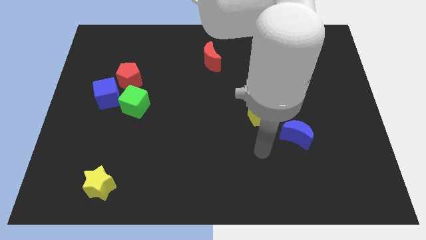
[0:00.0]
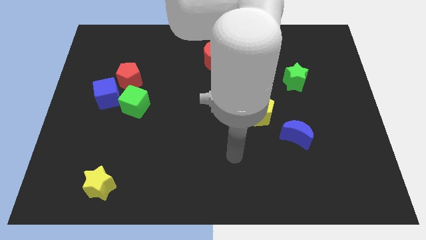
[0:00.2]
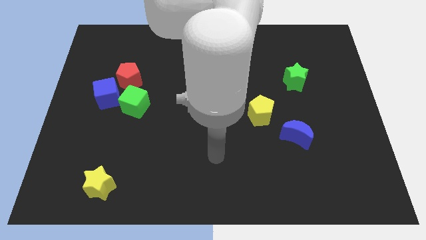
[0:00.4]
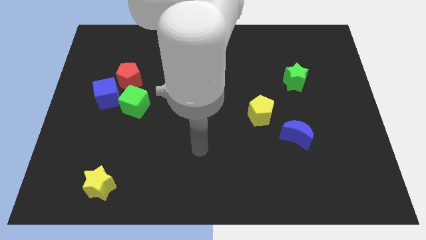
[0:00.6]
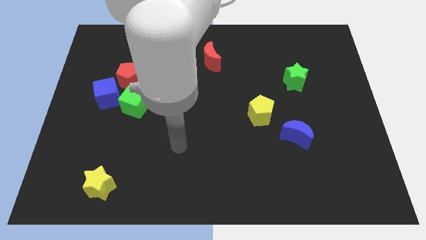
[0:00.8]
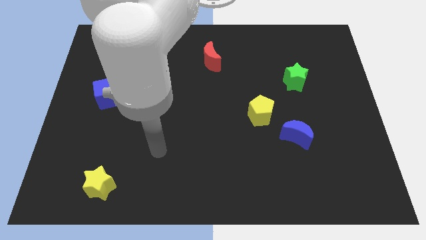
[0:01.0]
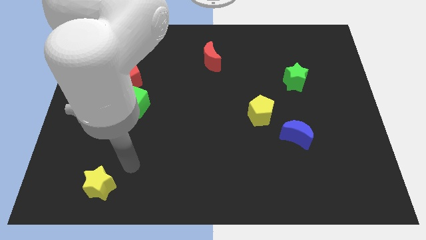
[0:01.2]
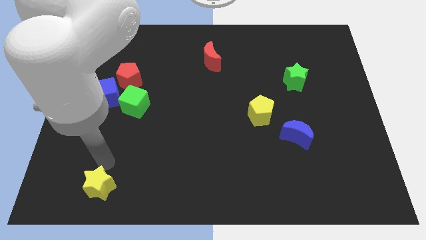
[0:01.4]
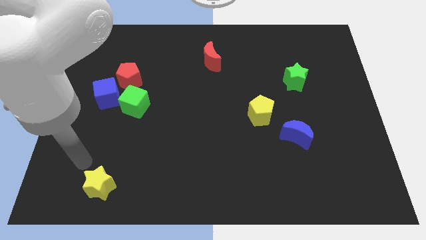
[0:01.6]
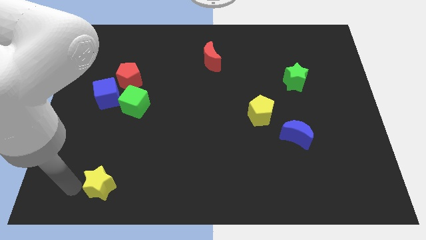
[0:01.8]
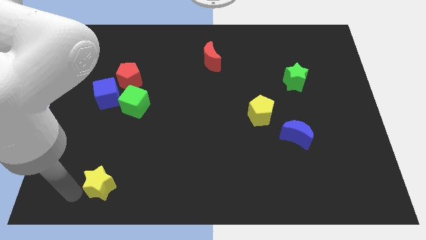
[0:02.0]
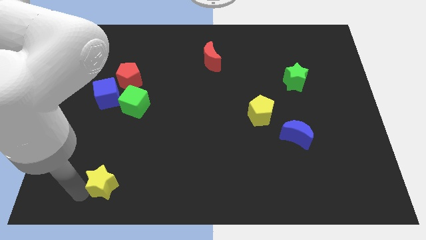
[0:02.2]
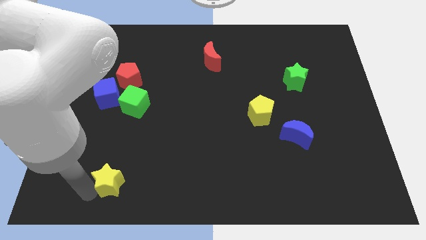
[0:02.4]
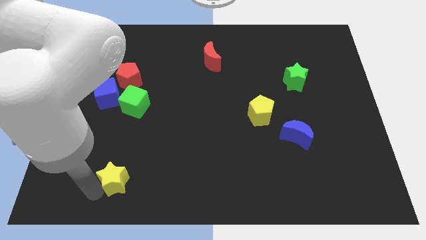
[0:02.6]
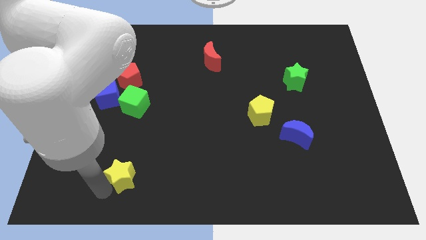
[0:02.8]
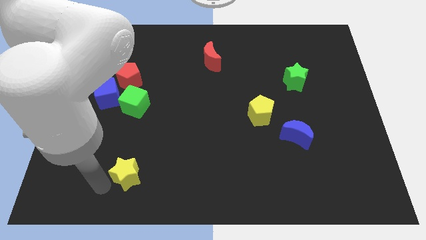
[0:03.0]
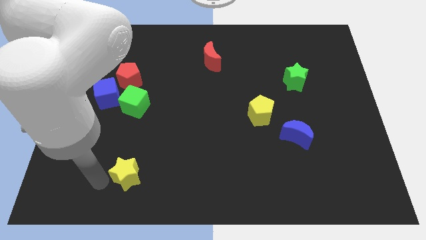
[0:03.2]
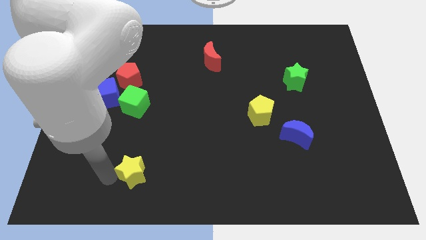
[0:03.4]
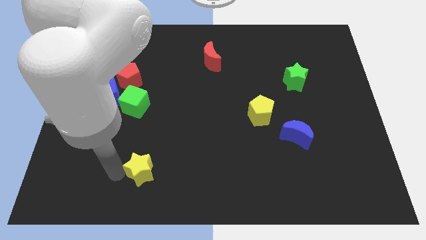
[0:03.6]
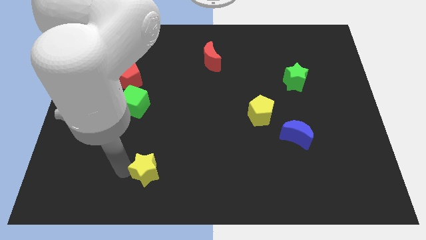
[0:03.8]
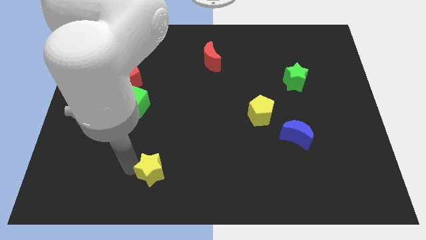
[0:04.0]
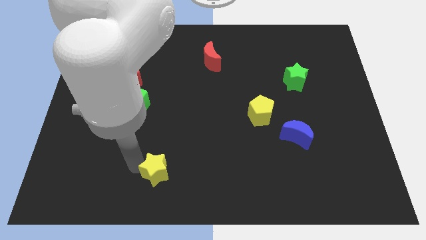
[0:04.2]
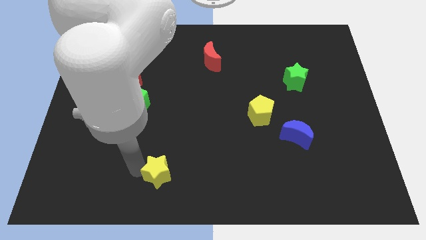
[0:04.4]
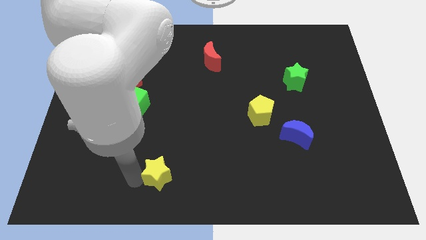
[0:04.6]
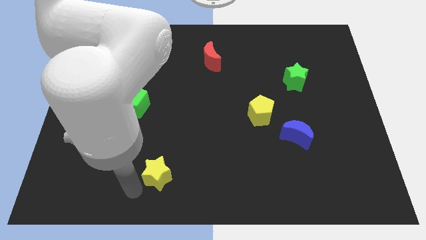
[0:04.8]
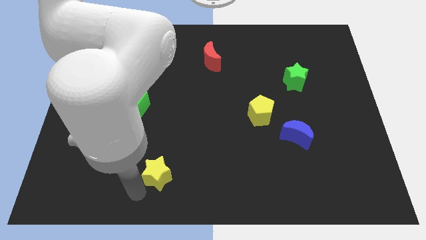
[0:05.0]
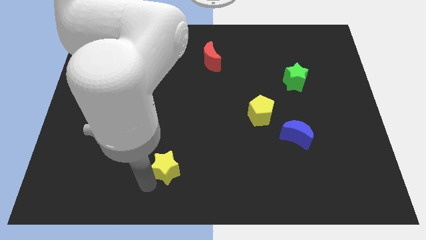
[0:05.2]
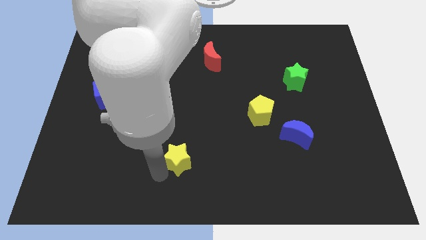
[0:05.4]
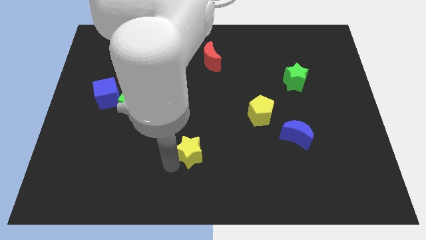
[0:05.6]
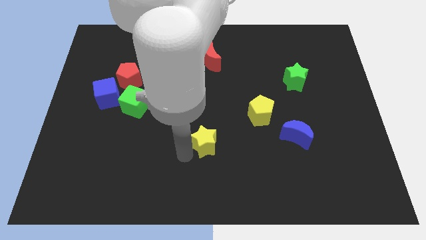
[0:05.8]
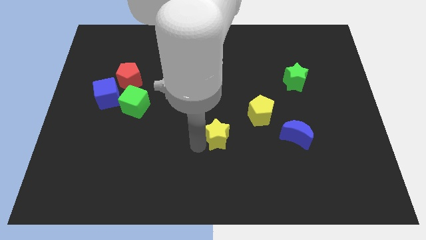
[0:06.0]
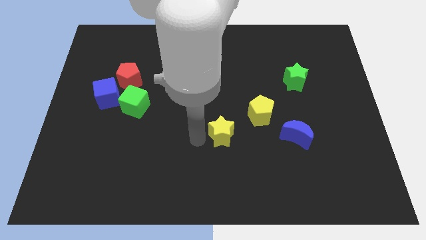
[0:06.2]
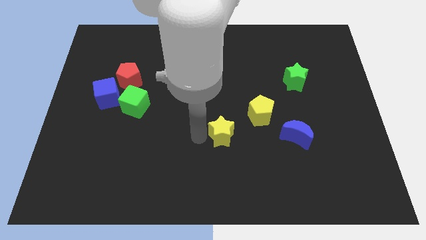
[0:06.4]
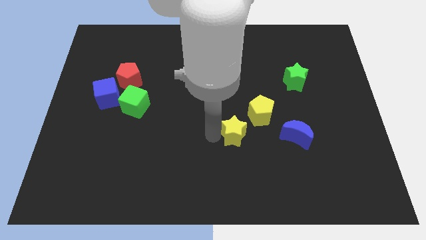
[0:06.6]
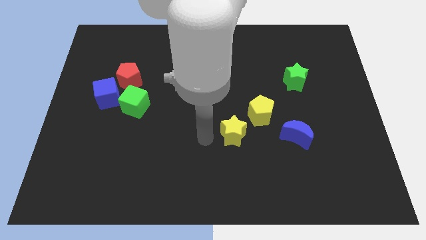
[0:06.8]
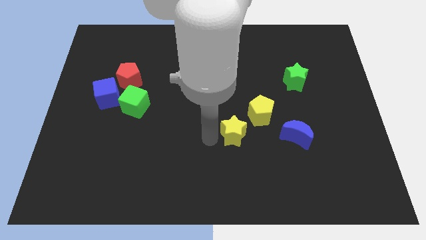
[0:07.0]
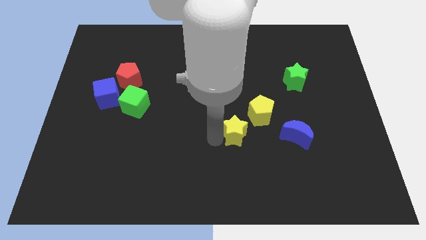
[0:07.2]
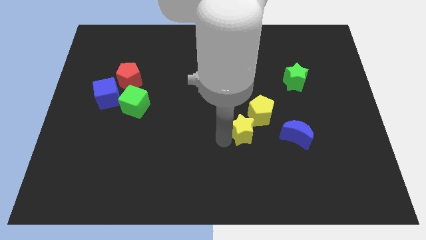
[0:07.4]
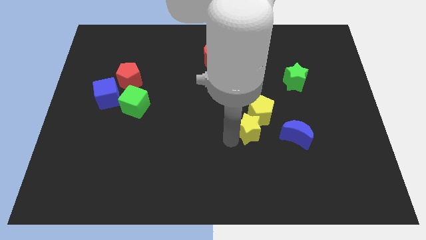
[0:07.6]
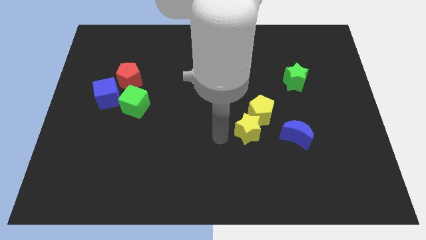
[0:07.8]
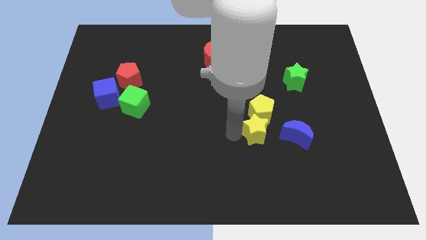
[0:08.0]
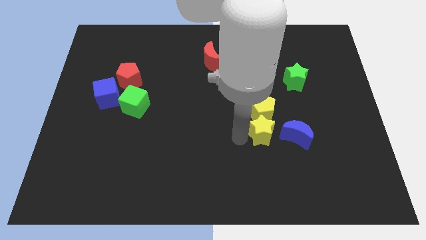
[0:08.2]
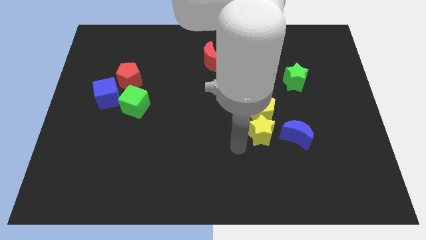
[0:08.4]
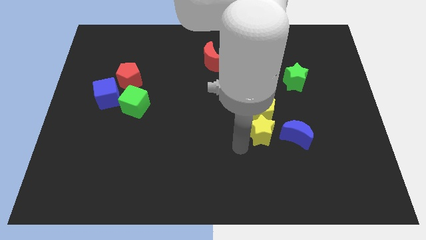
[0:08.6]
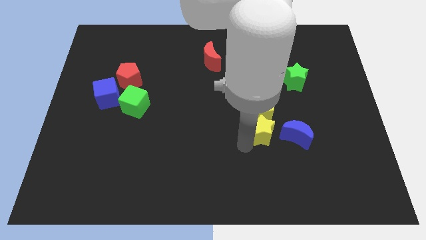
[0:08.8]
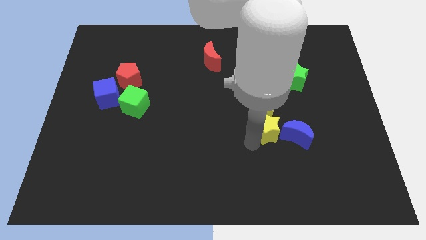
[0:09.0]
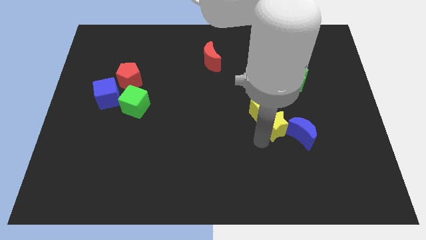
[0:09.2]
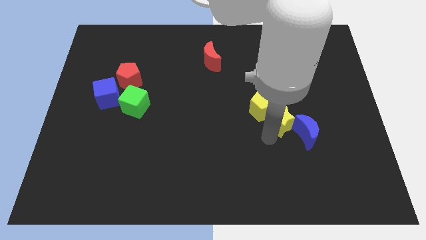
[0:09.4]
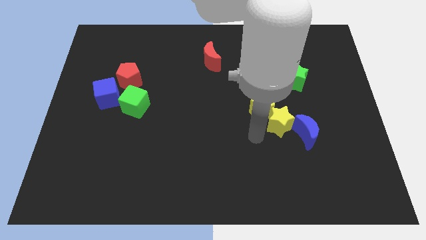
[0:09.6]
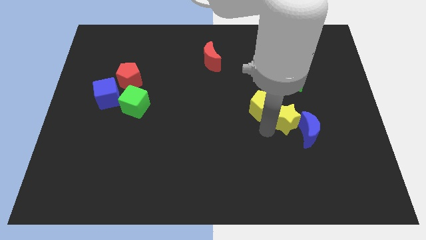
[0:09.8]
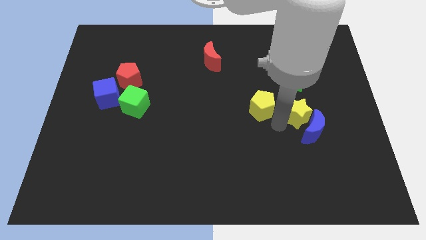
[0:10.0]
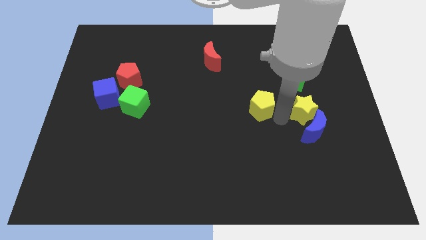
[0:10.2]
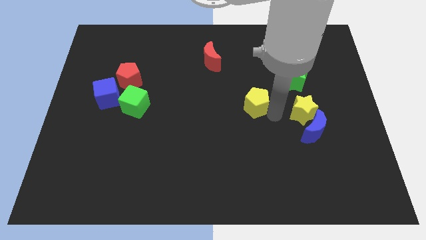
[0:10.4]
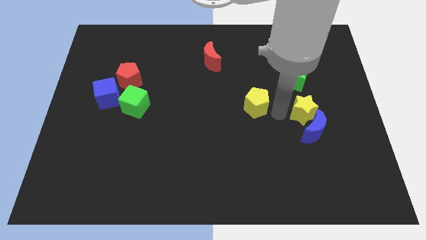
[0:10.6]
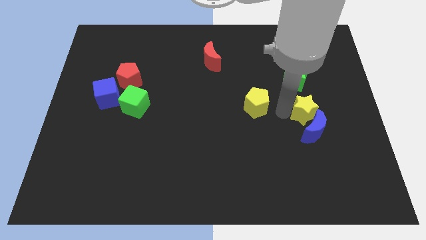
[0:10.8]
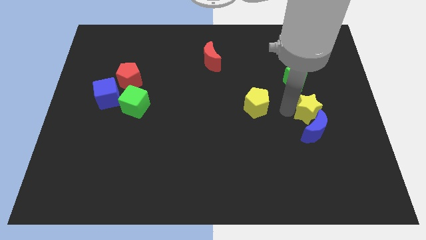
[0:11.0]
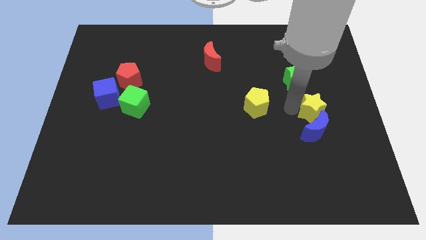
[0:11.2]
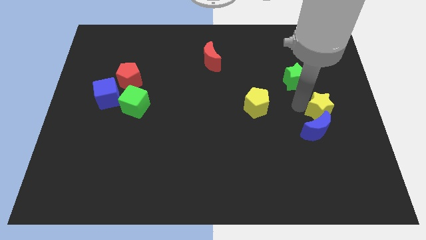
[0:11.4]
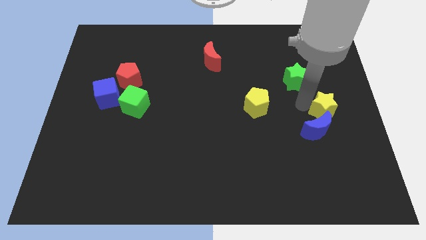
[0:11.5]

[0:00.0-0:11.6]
put the yellow star to the center right

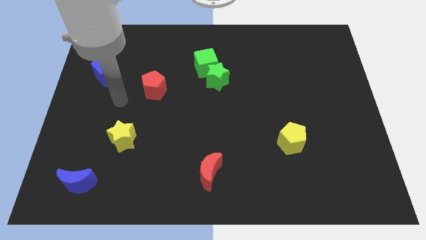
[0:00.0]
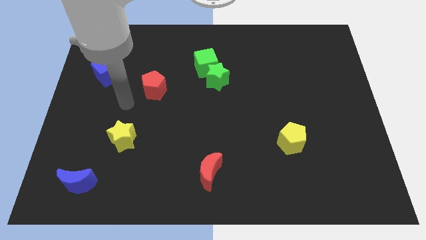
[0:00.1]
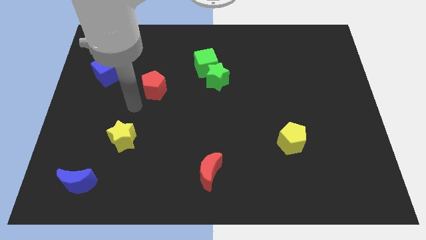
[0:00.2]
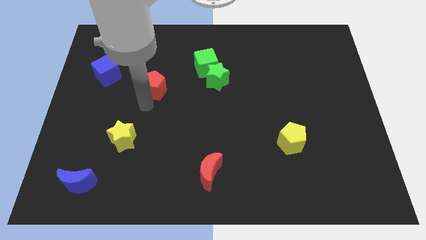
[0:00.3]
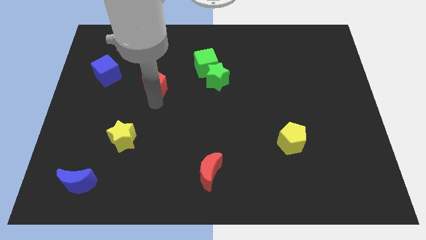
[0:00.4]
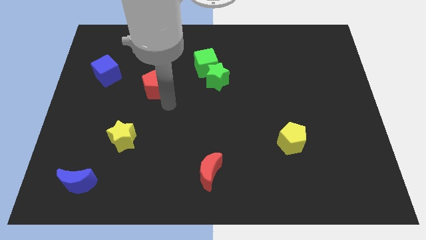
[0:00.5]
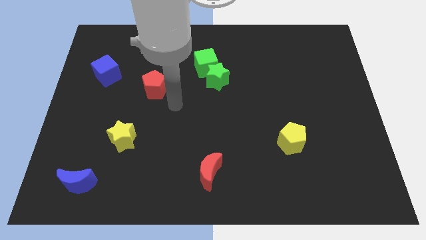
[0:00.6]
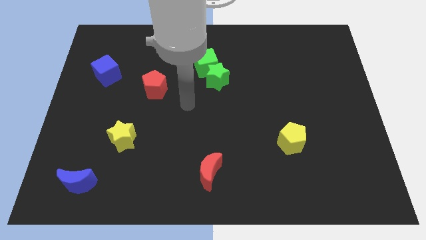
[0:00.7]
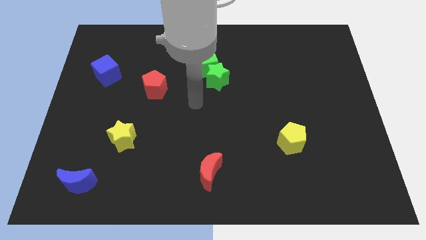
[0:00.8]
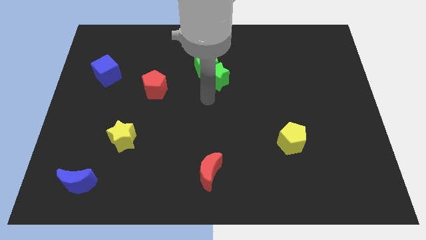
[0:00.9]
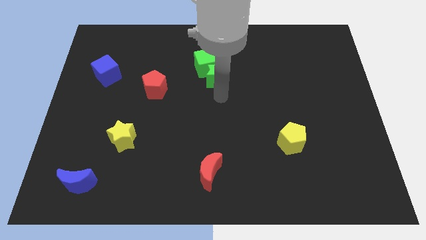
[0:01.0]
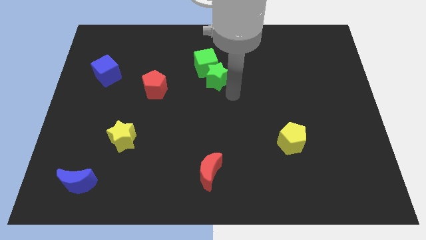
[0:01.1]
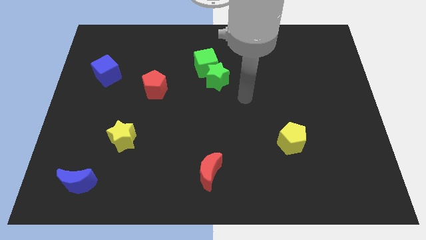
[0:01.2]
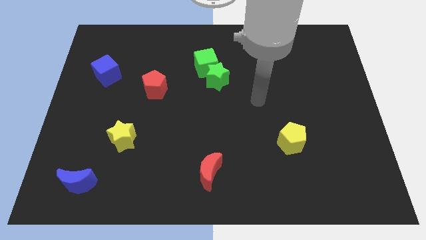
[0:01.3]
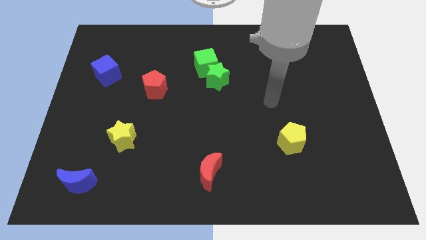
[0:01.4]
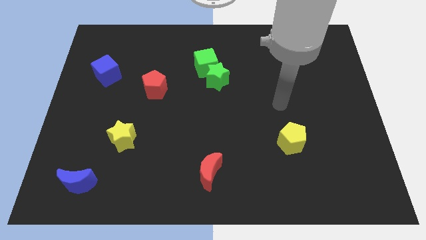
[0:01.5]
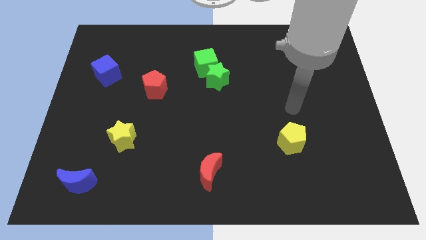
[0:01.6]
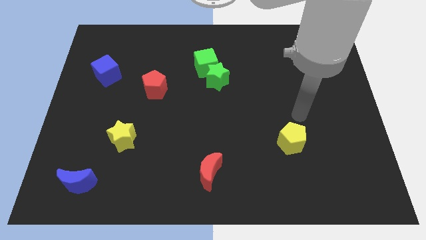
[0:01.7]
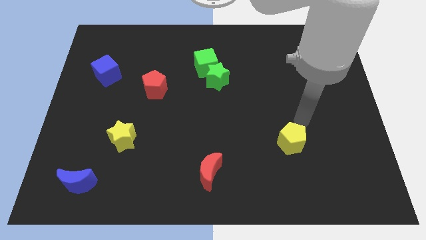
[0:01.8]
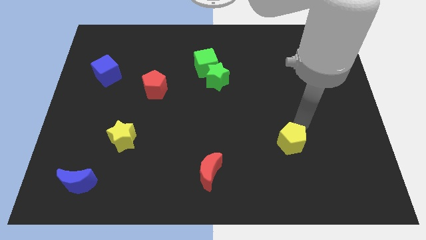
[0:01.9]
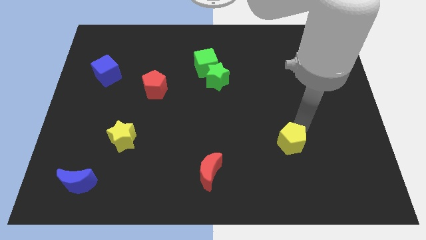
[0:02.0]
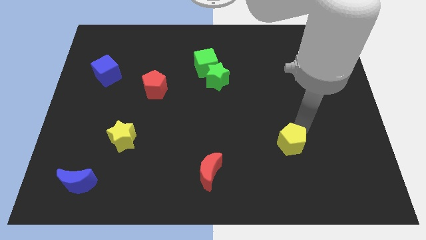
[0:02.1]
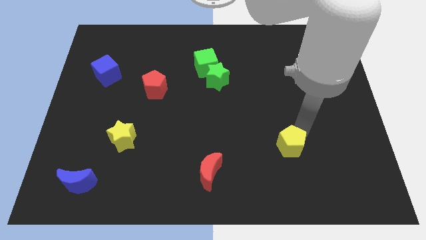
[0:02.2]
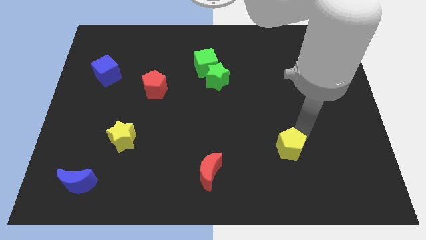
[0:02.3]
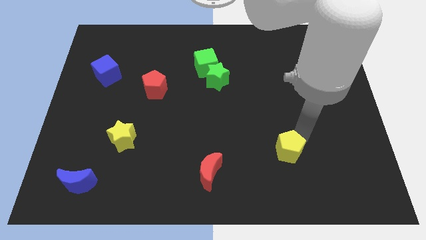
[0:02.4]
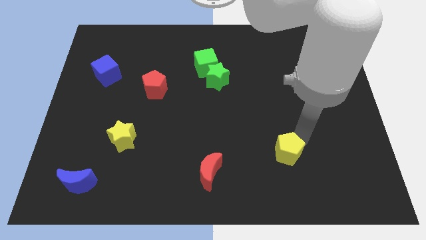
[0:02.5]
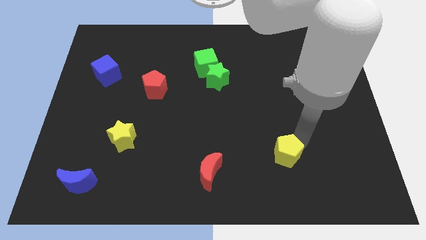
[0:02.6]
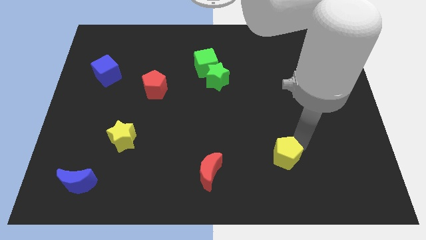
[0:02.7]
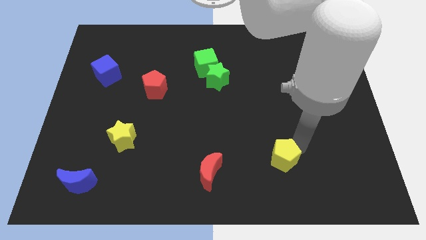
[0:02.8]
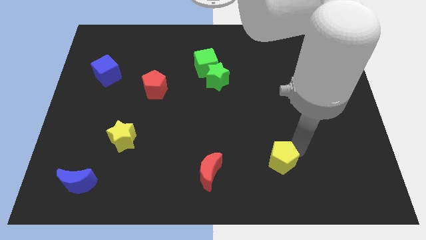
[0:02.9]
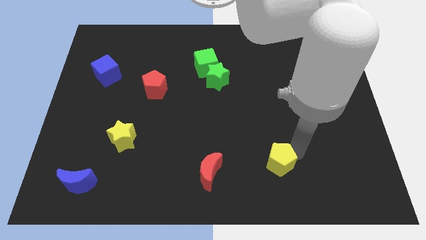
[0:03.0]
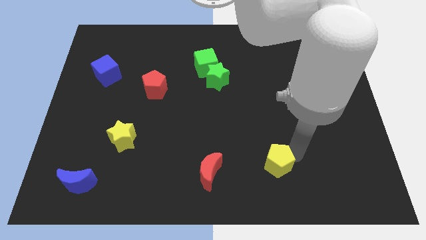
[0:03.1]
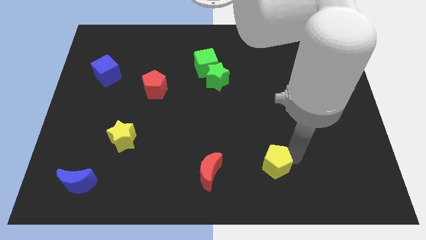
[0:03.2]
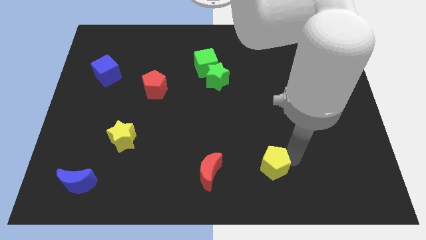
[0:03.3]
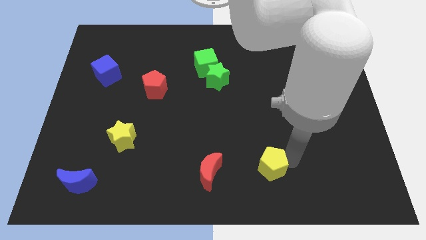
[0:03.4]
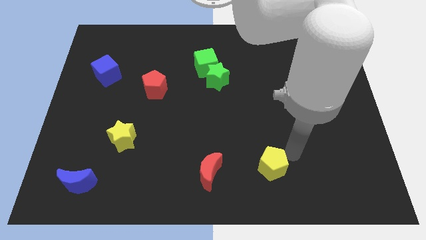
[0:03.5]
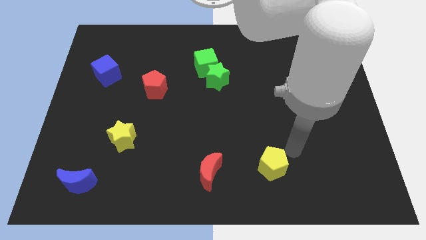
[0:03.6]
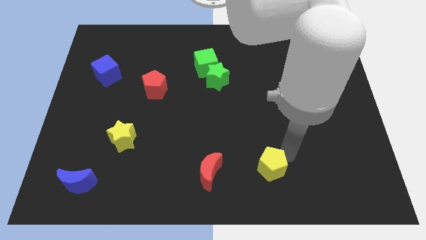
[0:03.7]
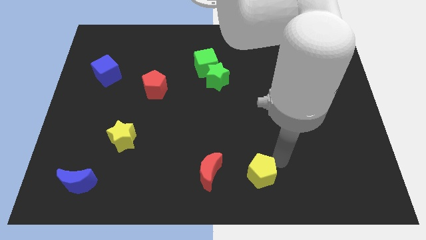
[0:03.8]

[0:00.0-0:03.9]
push the yellow pentagon to the bottom
